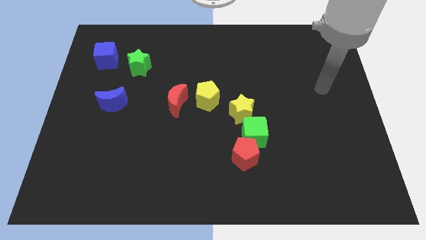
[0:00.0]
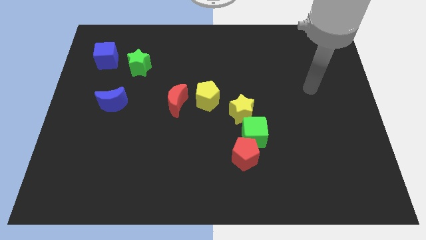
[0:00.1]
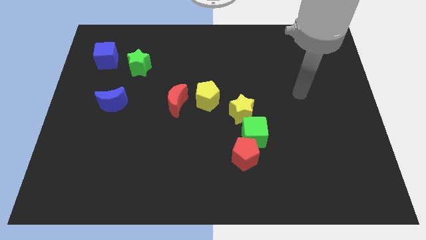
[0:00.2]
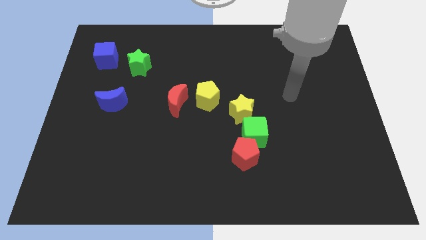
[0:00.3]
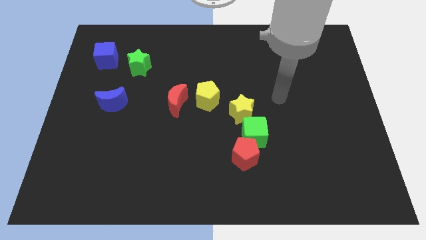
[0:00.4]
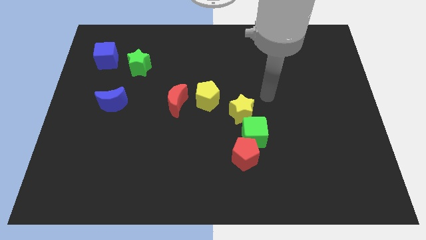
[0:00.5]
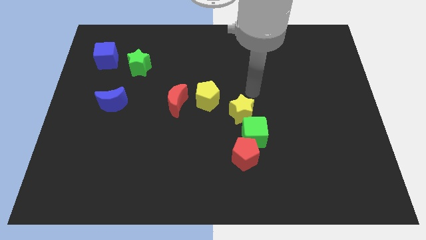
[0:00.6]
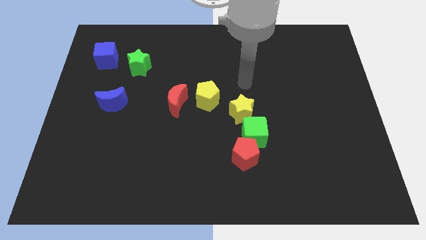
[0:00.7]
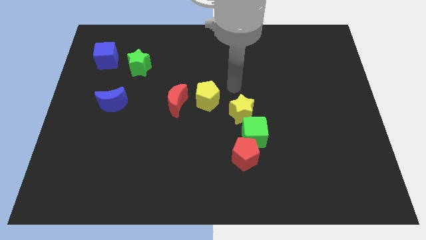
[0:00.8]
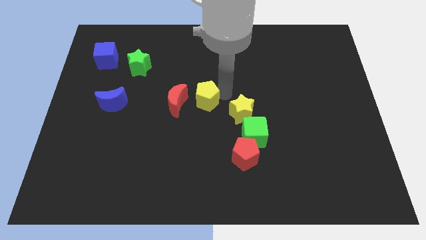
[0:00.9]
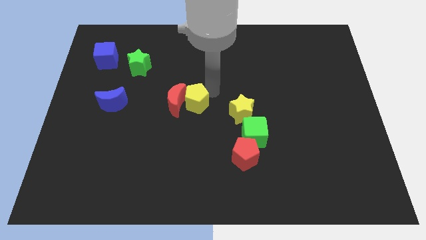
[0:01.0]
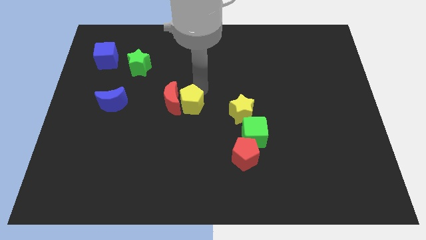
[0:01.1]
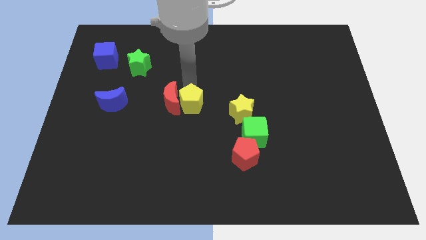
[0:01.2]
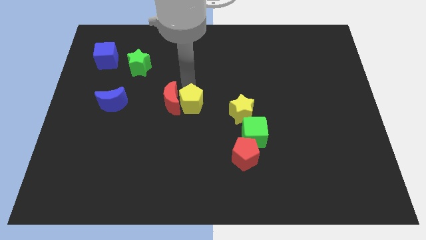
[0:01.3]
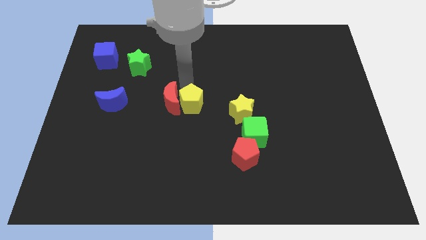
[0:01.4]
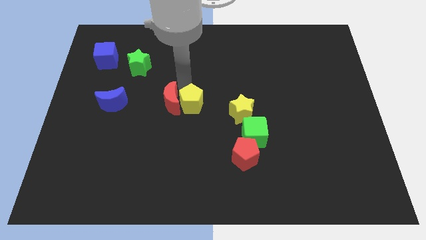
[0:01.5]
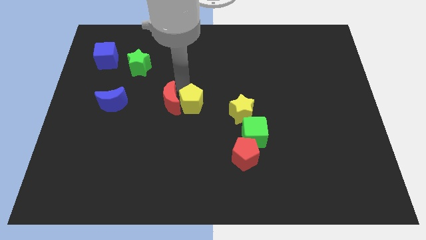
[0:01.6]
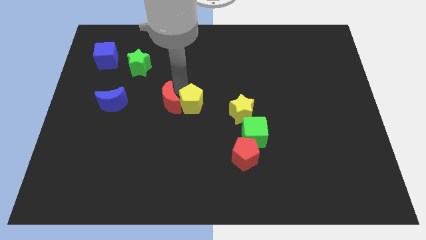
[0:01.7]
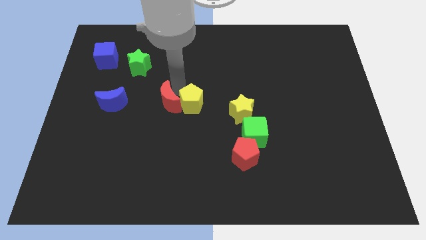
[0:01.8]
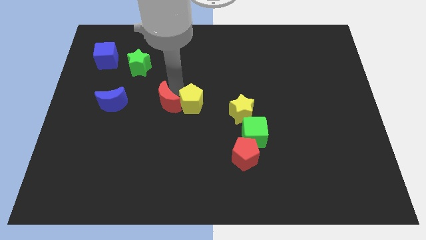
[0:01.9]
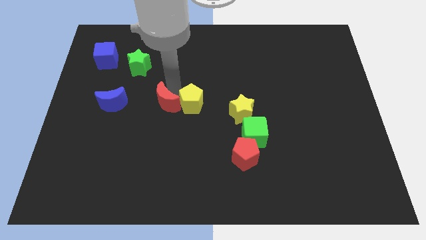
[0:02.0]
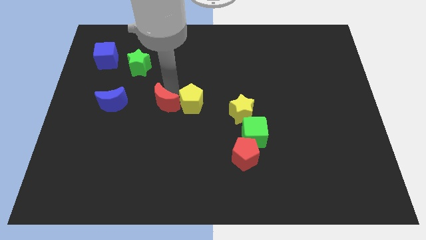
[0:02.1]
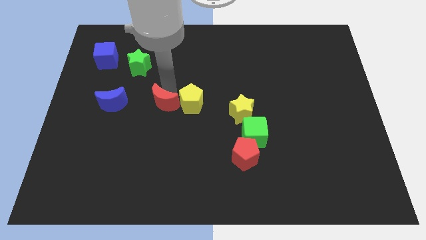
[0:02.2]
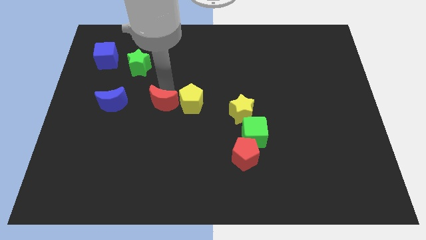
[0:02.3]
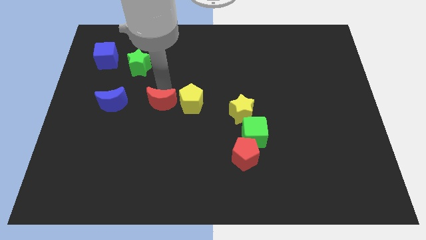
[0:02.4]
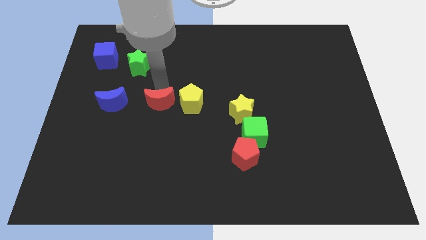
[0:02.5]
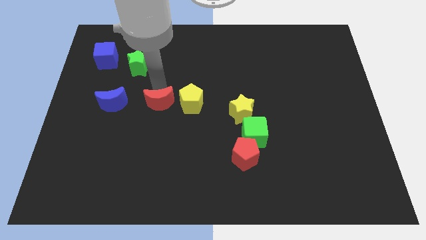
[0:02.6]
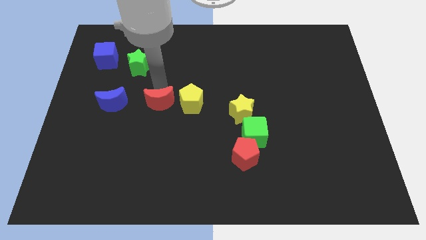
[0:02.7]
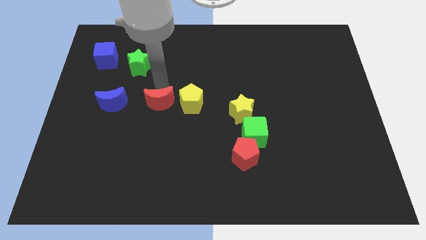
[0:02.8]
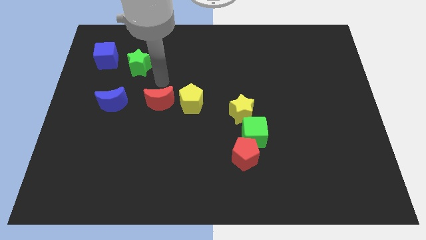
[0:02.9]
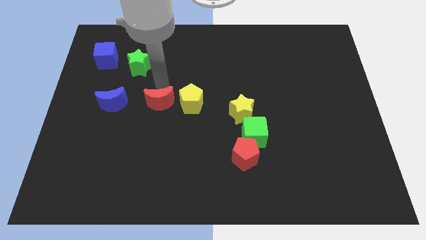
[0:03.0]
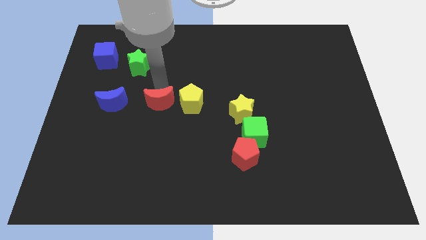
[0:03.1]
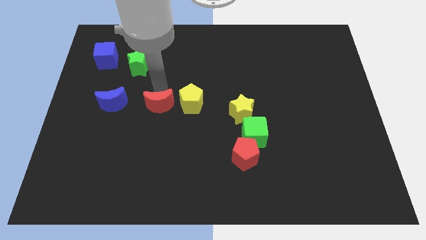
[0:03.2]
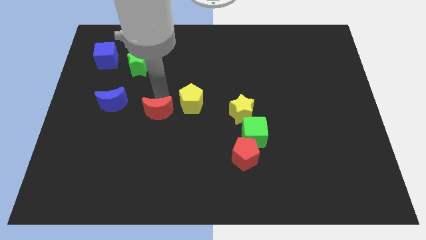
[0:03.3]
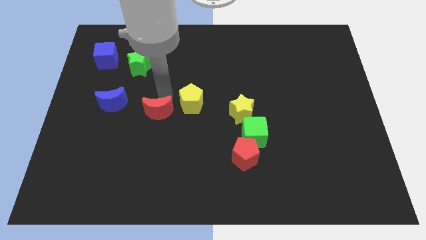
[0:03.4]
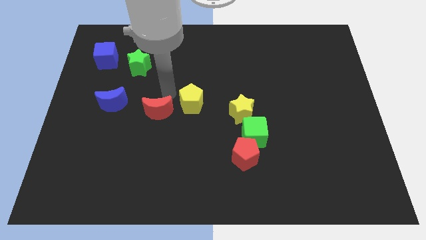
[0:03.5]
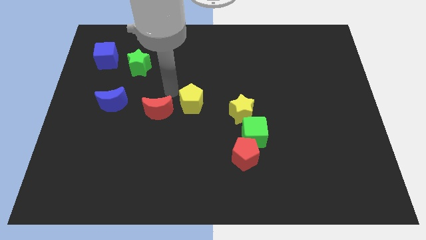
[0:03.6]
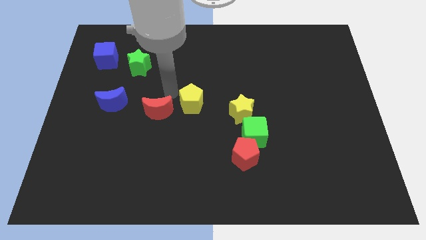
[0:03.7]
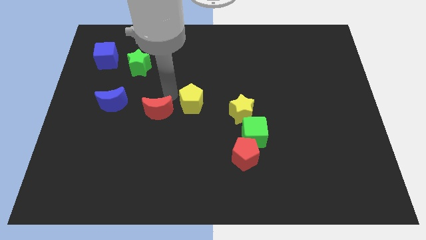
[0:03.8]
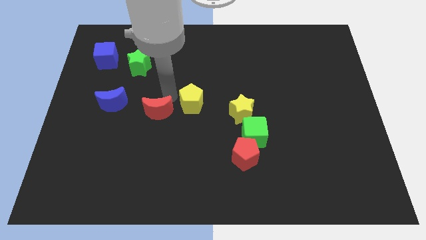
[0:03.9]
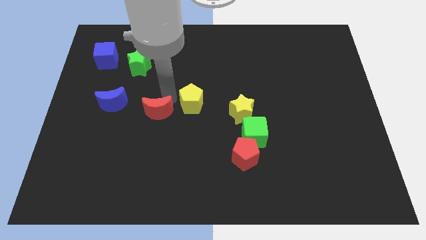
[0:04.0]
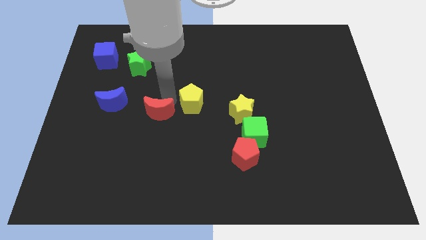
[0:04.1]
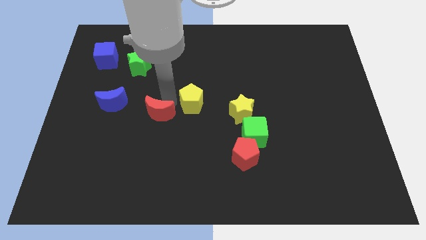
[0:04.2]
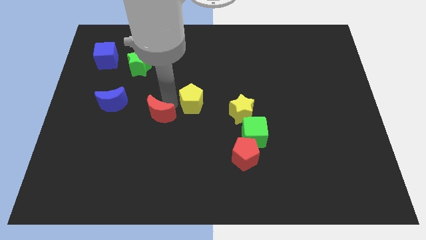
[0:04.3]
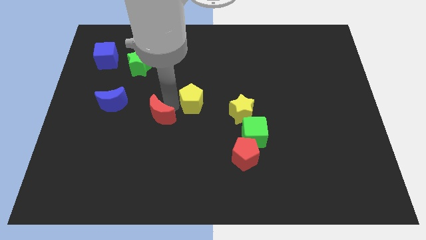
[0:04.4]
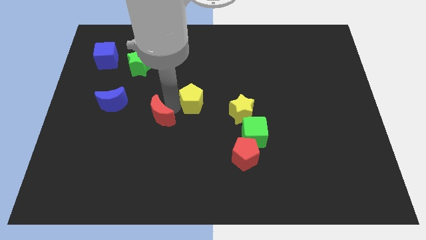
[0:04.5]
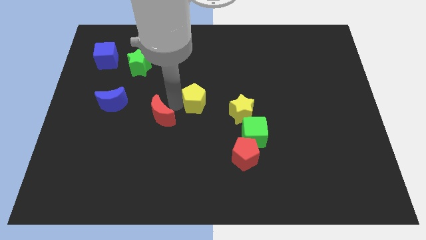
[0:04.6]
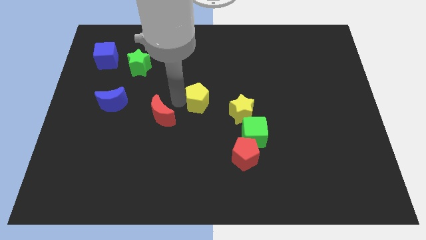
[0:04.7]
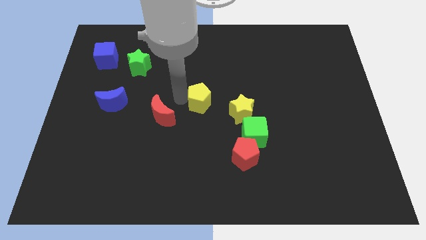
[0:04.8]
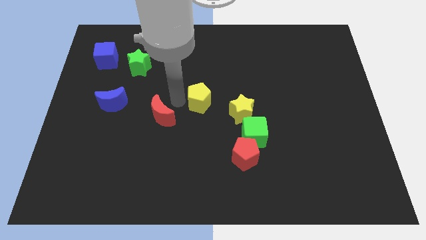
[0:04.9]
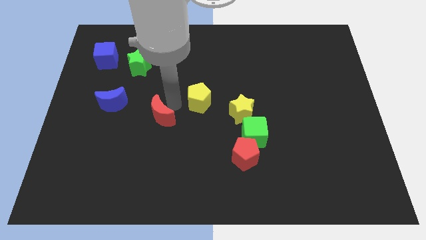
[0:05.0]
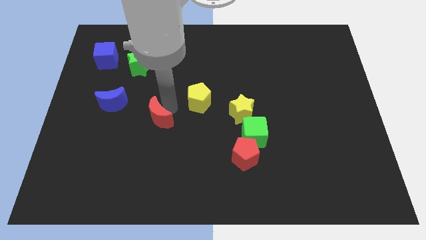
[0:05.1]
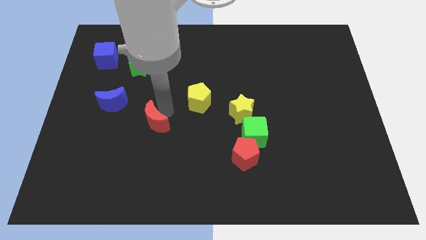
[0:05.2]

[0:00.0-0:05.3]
slightly slide the red moon down and left

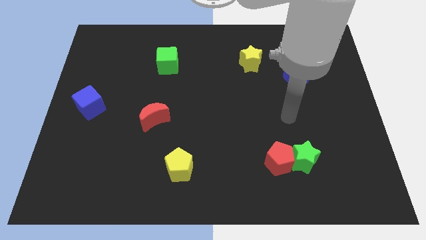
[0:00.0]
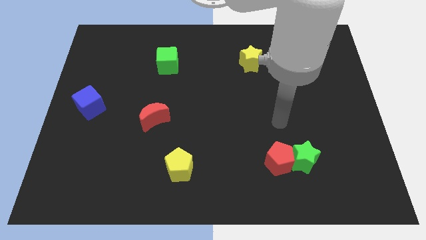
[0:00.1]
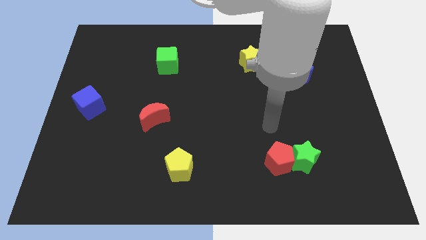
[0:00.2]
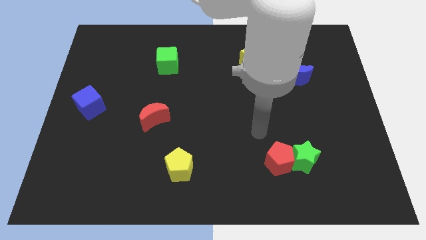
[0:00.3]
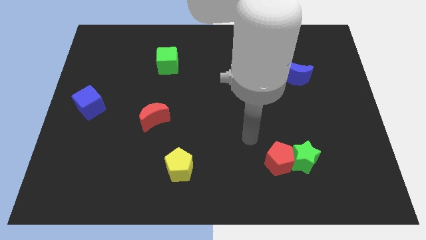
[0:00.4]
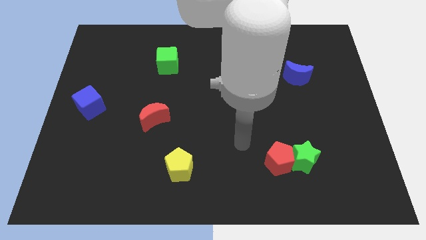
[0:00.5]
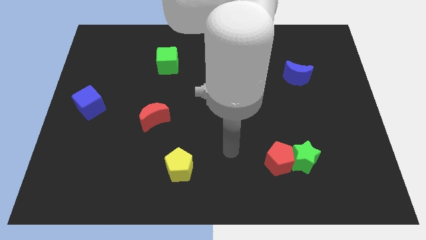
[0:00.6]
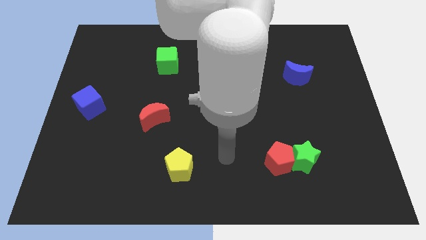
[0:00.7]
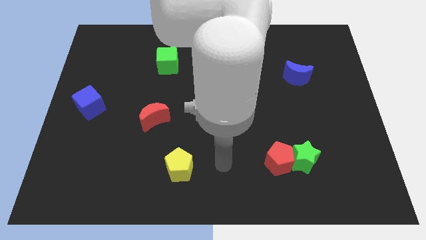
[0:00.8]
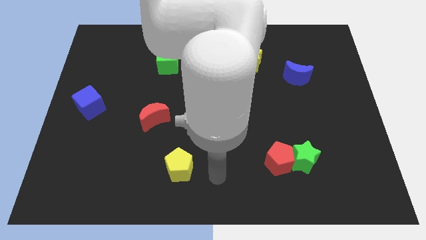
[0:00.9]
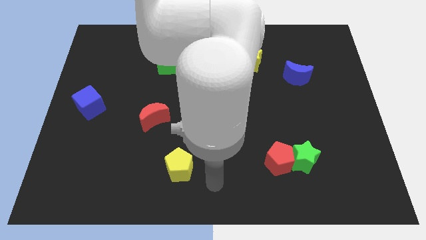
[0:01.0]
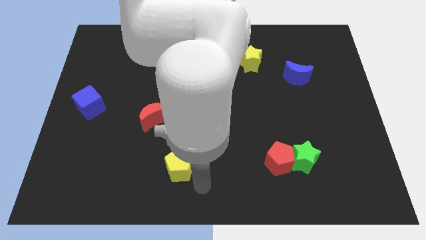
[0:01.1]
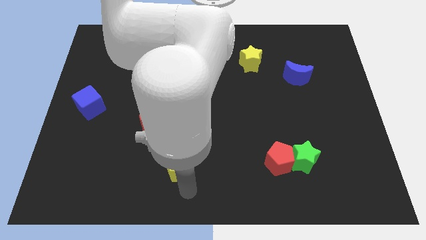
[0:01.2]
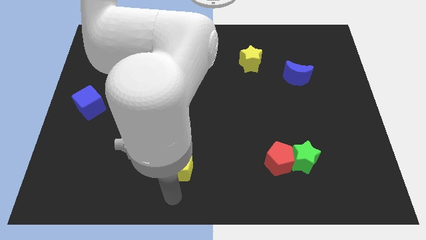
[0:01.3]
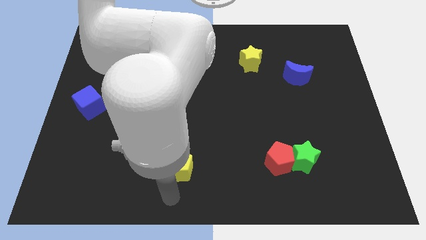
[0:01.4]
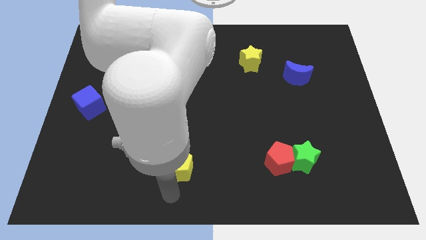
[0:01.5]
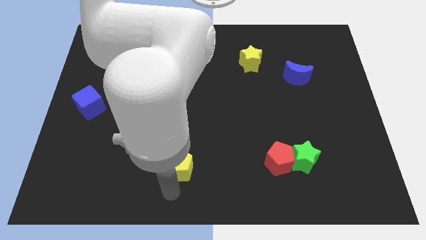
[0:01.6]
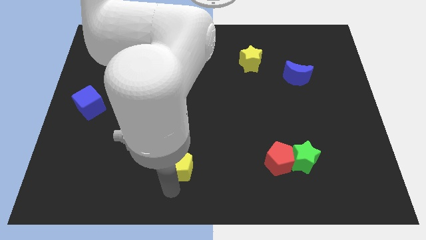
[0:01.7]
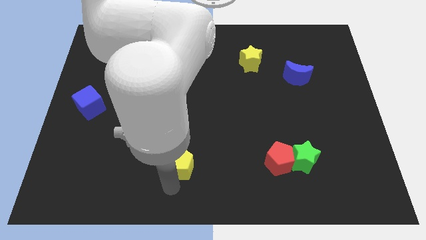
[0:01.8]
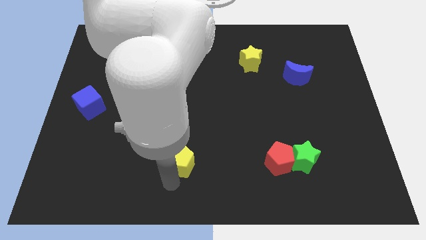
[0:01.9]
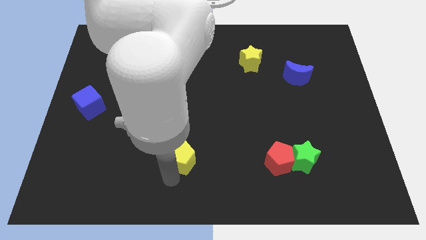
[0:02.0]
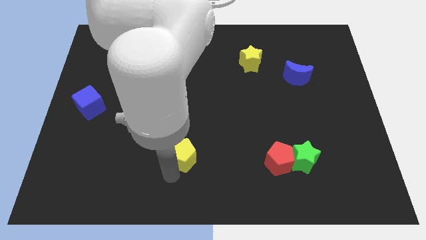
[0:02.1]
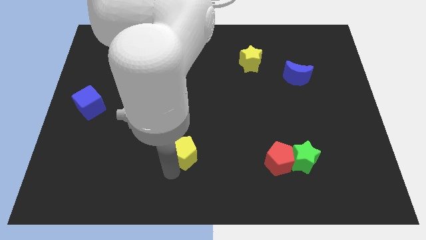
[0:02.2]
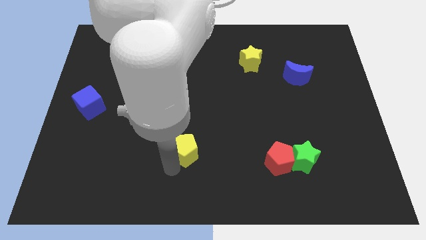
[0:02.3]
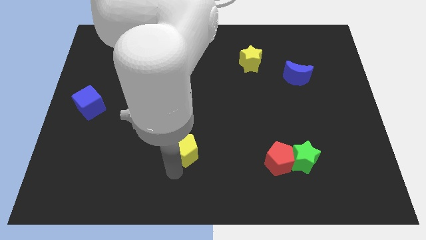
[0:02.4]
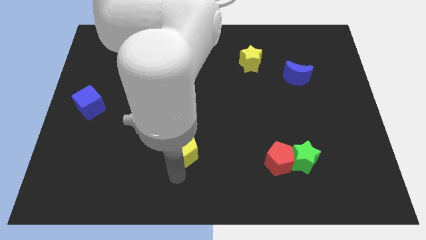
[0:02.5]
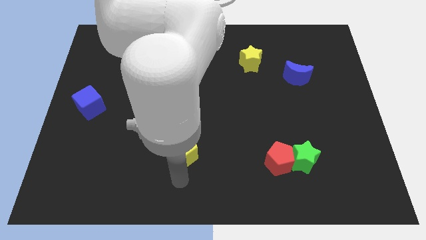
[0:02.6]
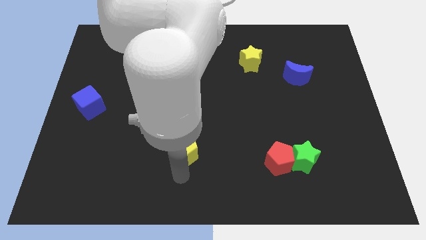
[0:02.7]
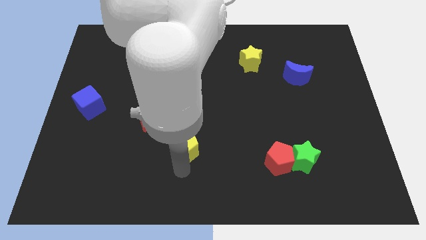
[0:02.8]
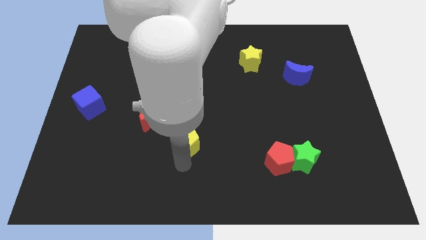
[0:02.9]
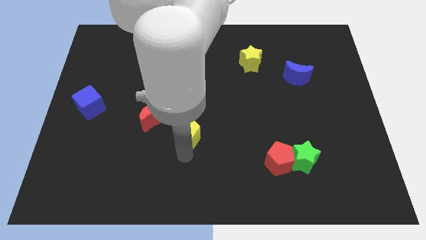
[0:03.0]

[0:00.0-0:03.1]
slightly slide the yellow pentagon up
